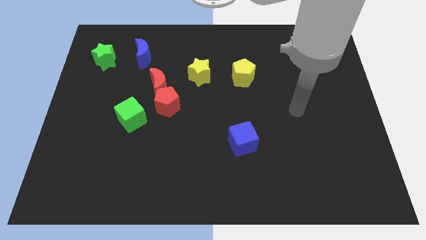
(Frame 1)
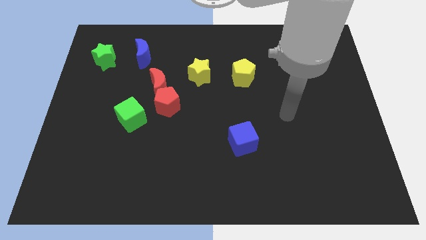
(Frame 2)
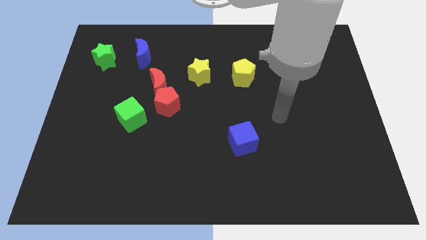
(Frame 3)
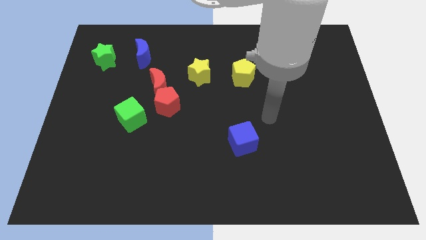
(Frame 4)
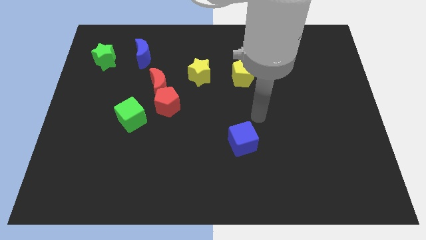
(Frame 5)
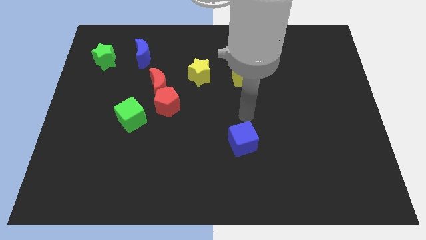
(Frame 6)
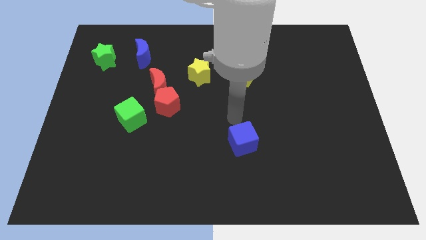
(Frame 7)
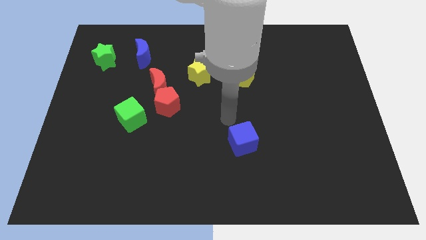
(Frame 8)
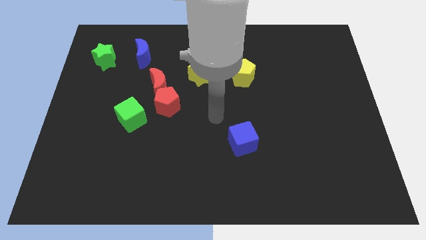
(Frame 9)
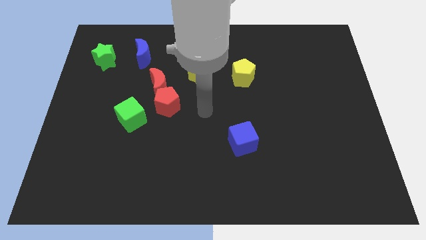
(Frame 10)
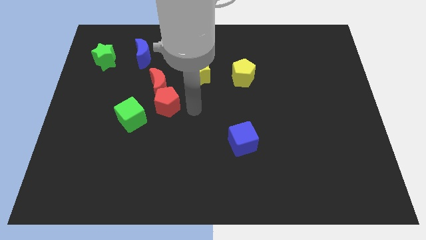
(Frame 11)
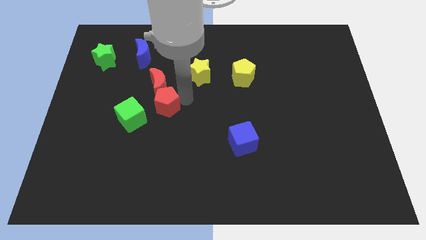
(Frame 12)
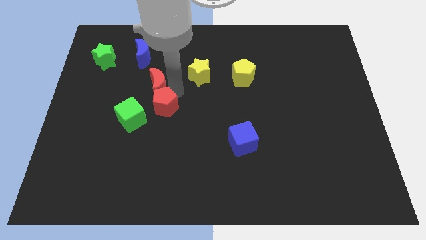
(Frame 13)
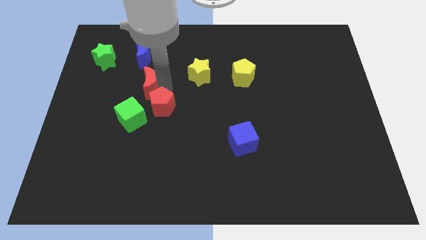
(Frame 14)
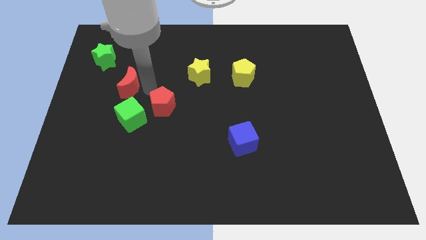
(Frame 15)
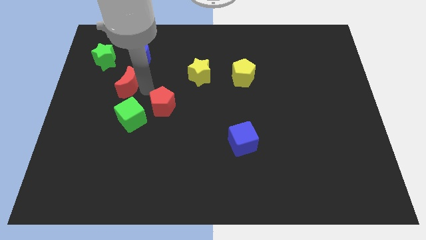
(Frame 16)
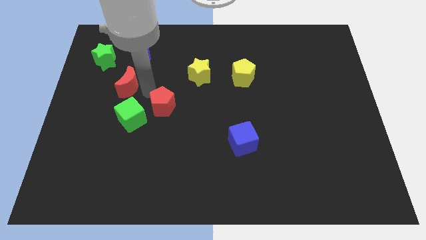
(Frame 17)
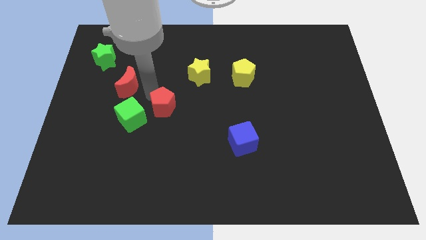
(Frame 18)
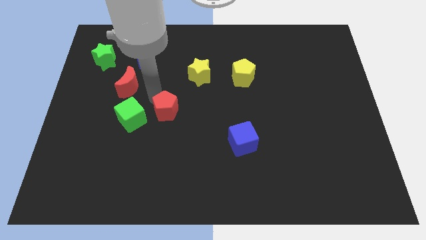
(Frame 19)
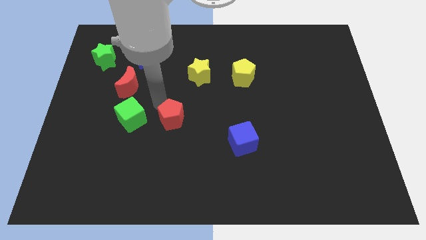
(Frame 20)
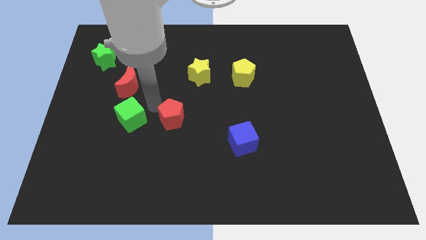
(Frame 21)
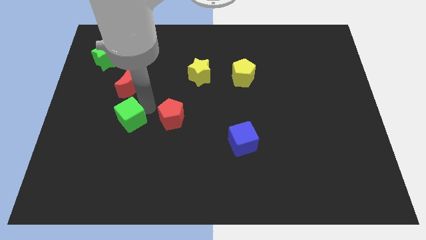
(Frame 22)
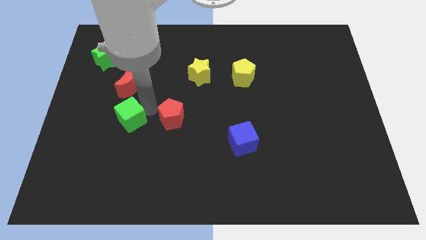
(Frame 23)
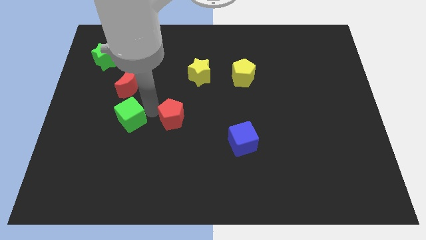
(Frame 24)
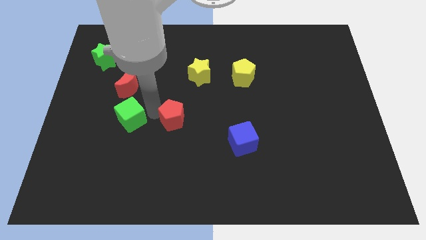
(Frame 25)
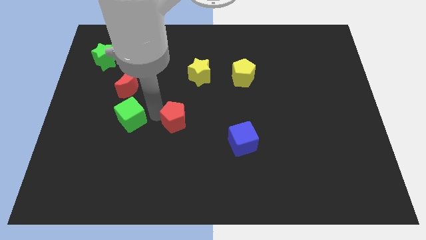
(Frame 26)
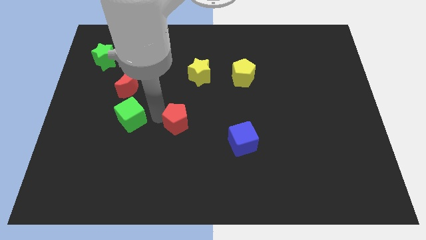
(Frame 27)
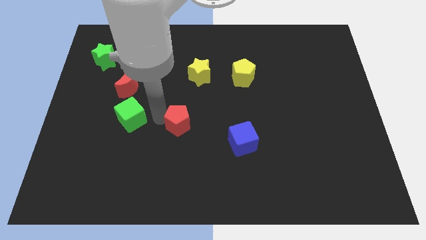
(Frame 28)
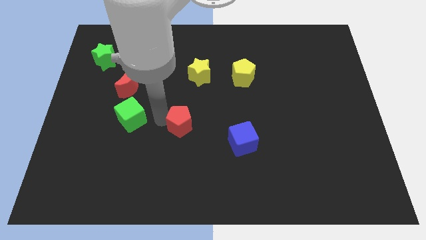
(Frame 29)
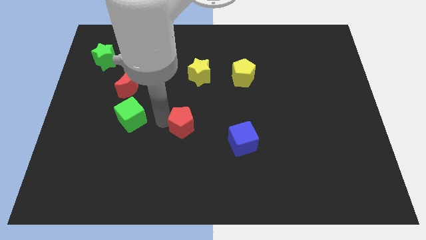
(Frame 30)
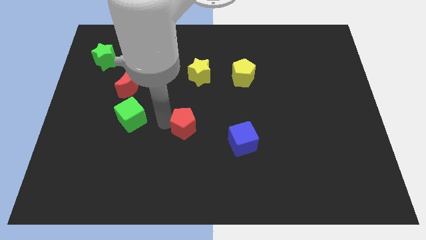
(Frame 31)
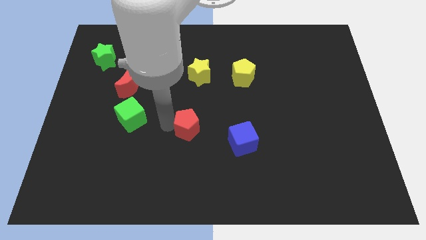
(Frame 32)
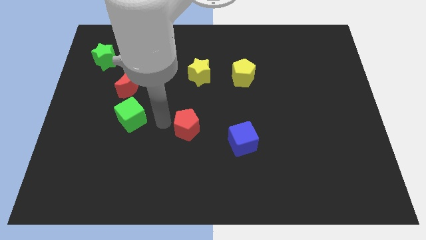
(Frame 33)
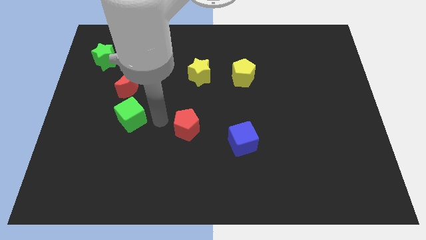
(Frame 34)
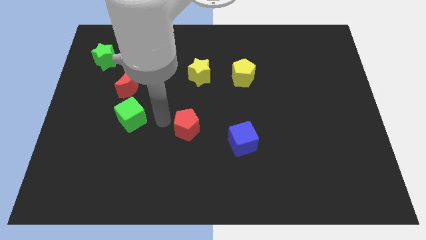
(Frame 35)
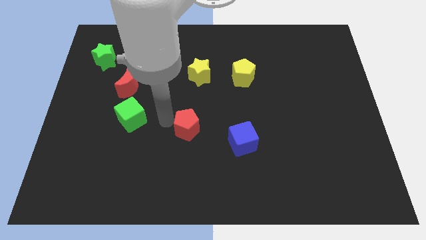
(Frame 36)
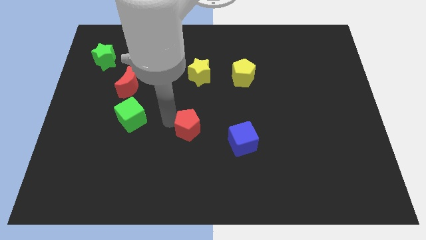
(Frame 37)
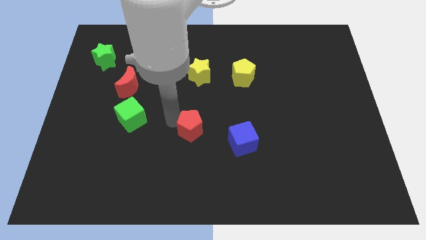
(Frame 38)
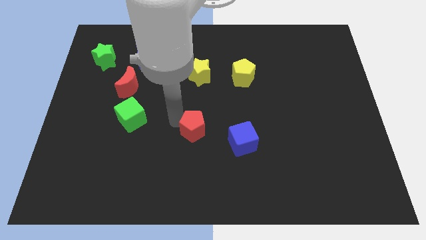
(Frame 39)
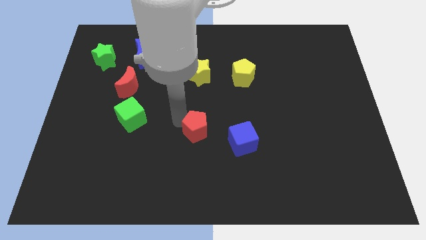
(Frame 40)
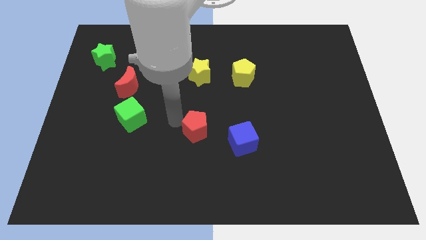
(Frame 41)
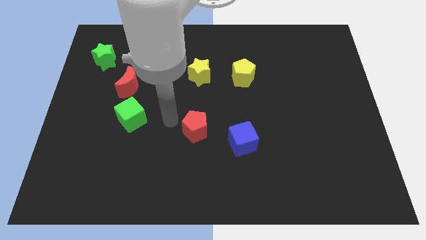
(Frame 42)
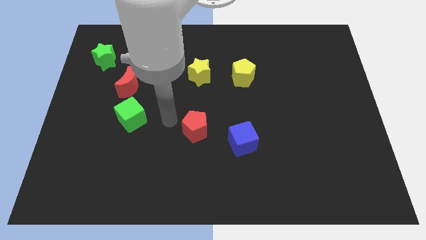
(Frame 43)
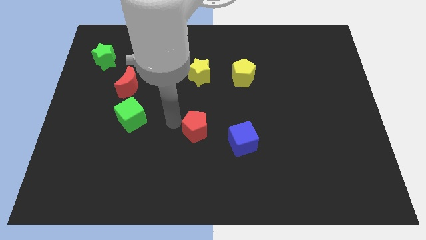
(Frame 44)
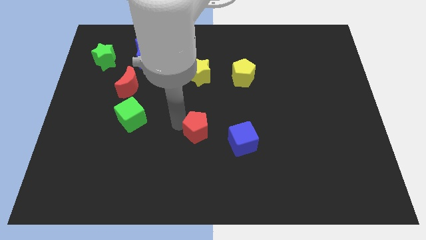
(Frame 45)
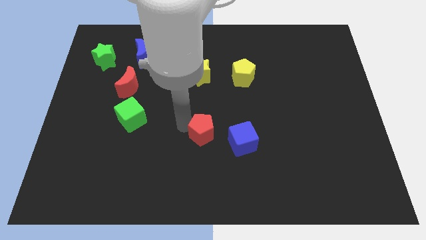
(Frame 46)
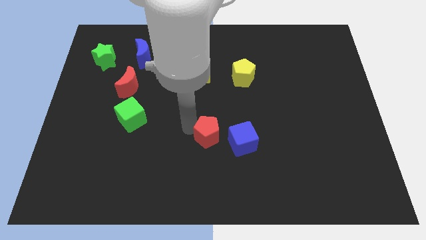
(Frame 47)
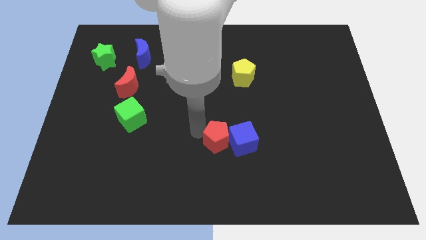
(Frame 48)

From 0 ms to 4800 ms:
slide the red pentagon close to the blue cube

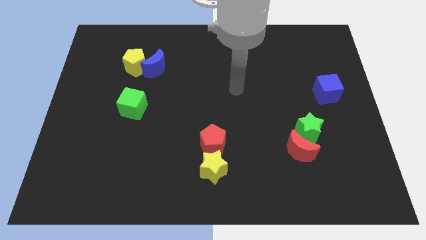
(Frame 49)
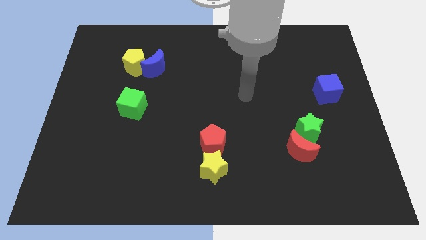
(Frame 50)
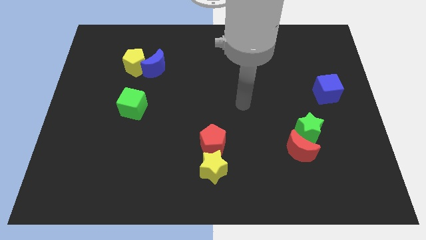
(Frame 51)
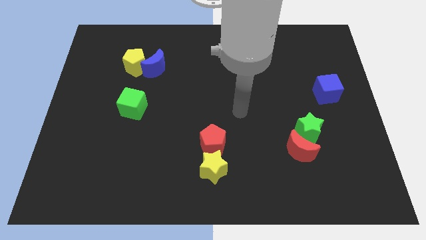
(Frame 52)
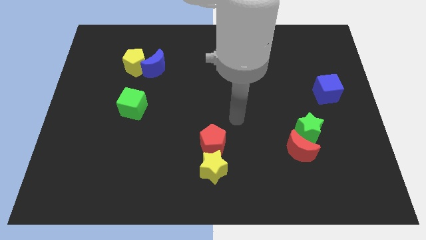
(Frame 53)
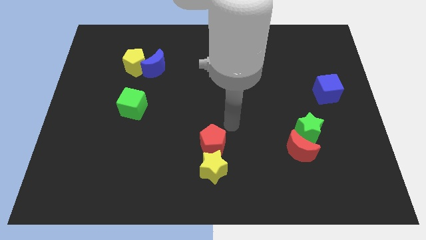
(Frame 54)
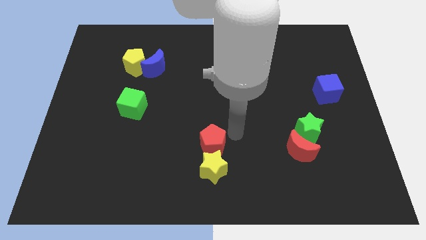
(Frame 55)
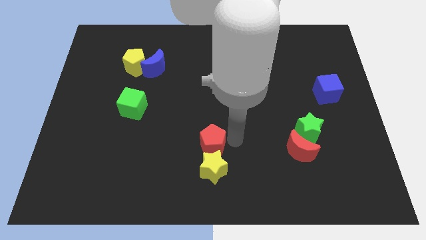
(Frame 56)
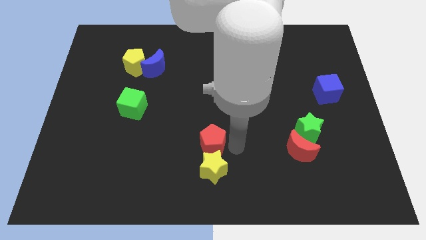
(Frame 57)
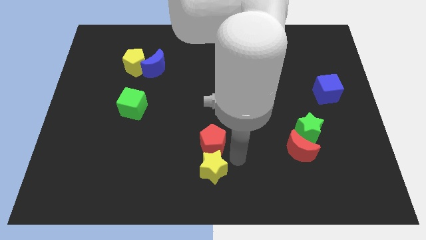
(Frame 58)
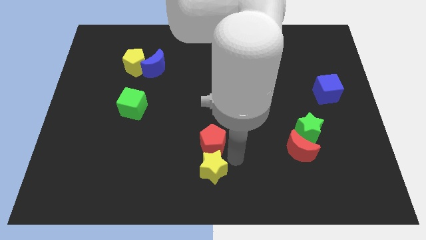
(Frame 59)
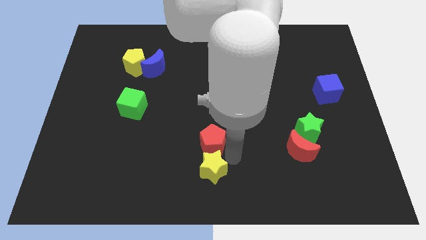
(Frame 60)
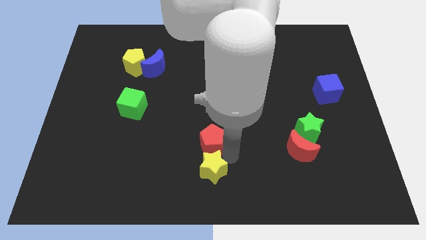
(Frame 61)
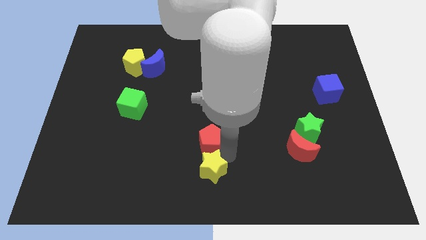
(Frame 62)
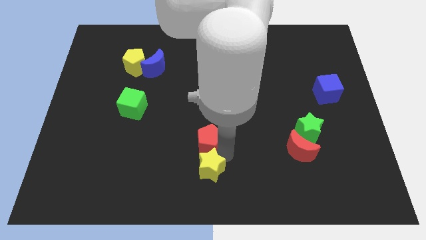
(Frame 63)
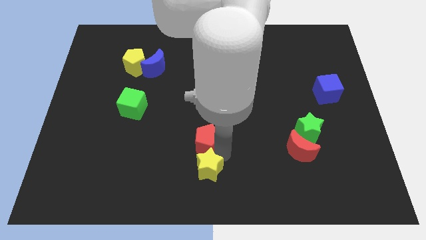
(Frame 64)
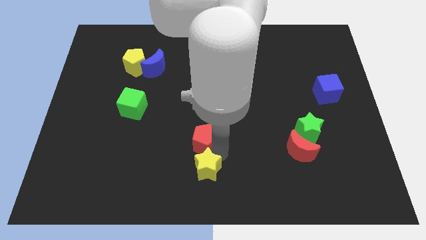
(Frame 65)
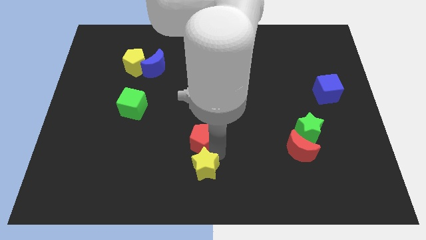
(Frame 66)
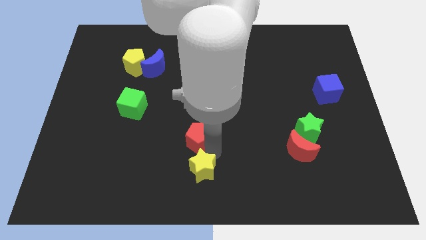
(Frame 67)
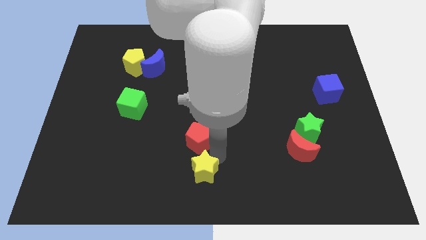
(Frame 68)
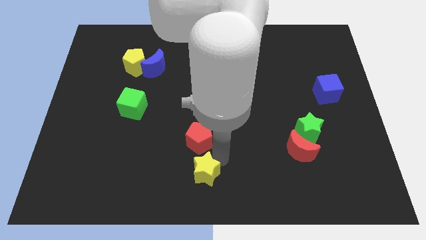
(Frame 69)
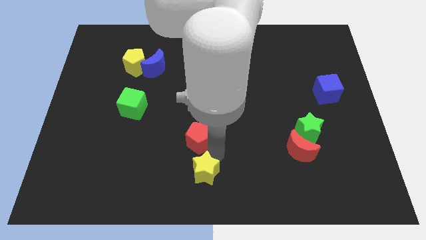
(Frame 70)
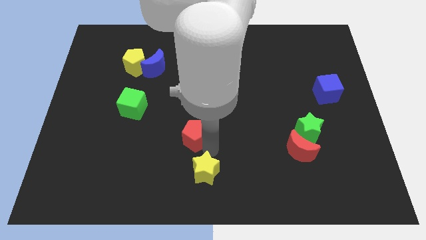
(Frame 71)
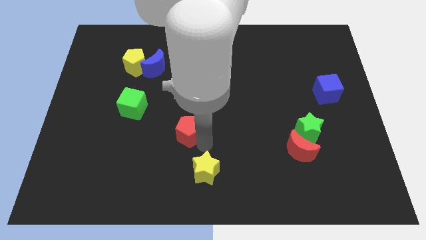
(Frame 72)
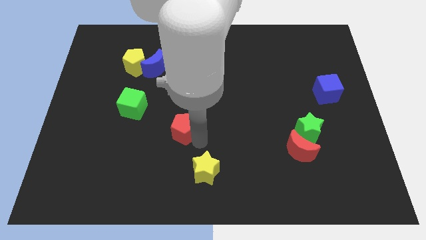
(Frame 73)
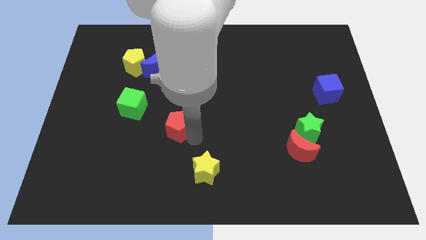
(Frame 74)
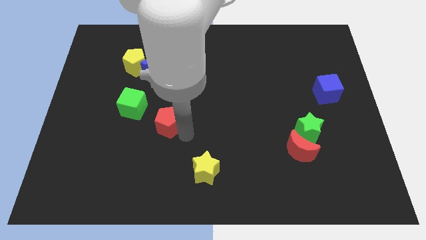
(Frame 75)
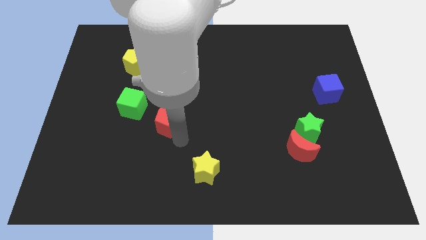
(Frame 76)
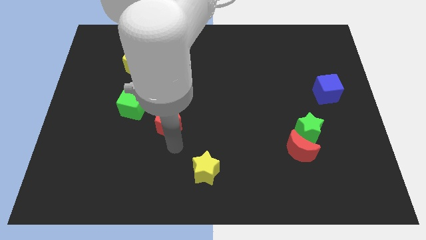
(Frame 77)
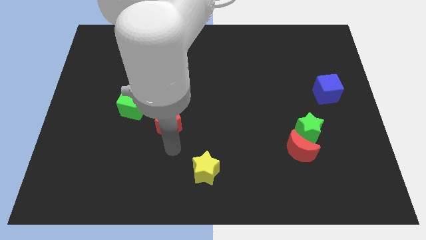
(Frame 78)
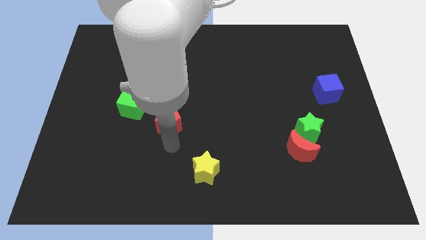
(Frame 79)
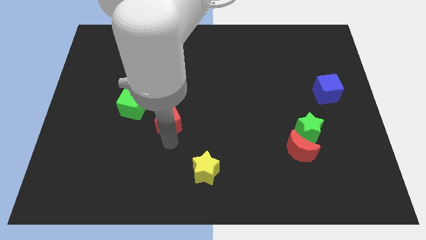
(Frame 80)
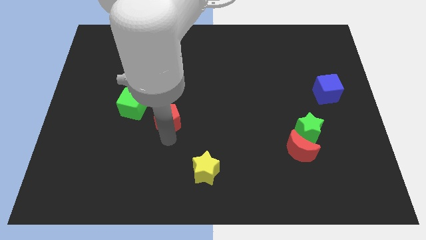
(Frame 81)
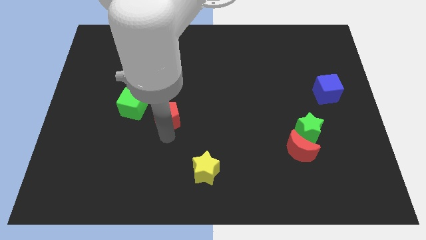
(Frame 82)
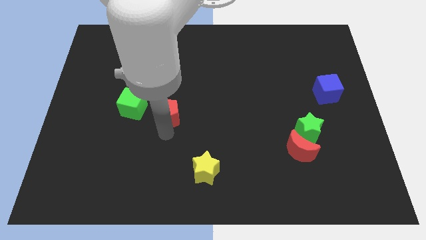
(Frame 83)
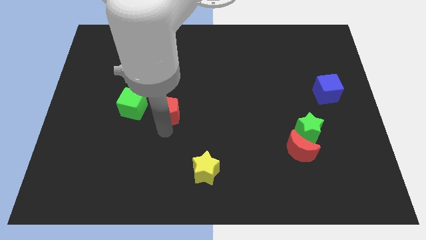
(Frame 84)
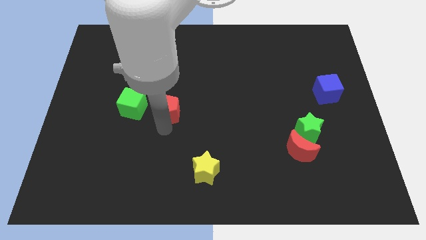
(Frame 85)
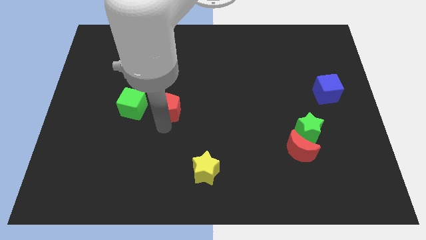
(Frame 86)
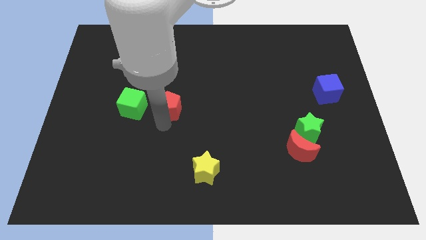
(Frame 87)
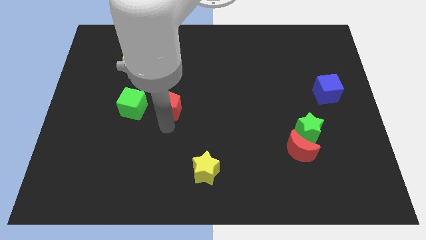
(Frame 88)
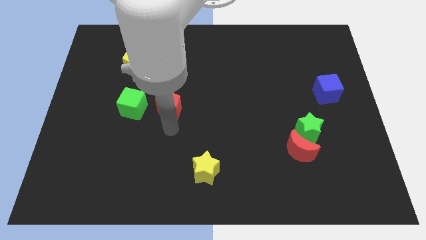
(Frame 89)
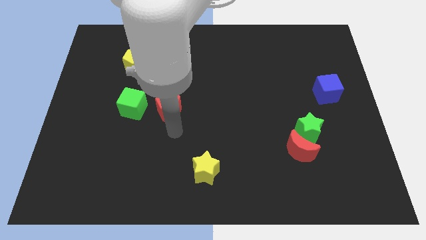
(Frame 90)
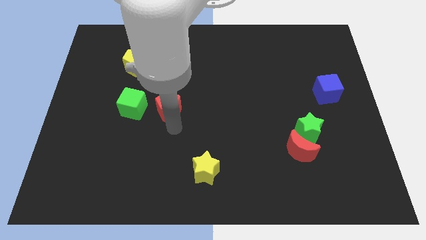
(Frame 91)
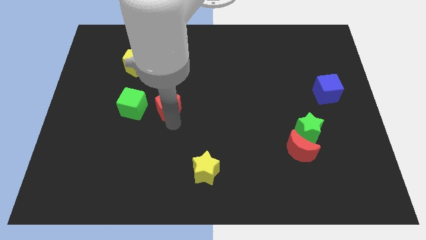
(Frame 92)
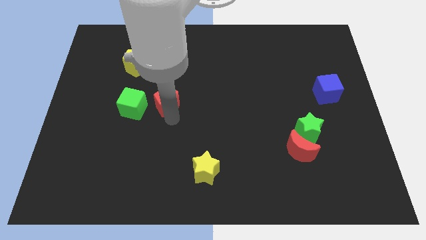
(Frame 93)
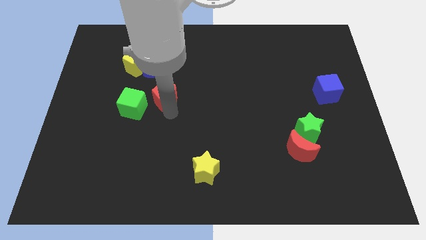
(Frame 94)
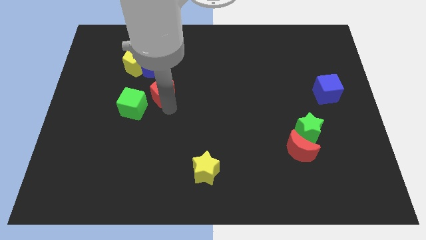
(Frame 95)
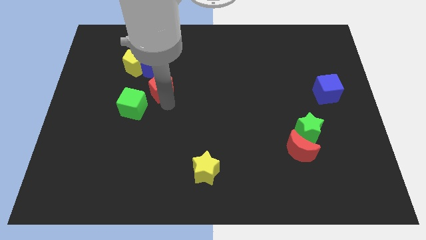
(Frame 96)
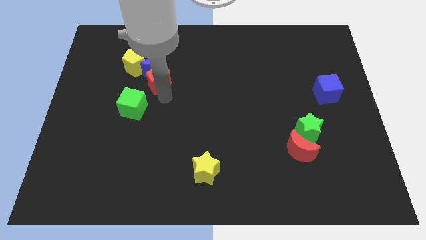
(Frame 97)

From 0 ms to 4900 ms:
move the red pentagon towards the blue moon
